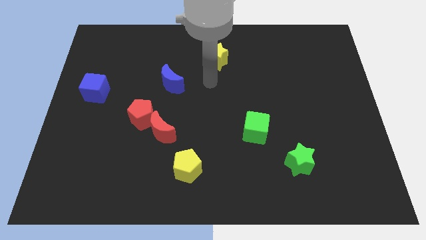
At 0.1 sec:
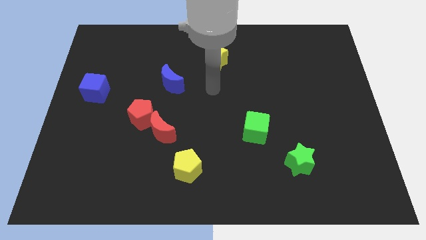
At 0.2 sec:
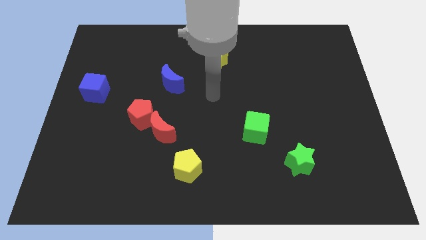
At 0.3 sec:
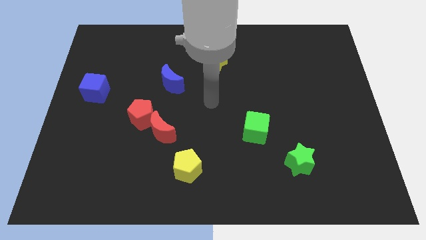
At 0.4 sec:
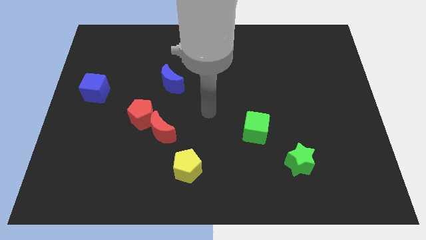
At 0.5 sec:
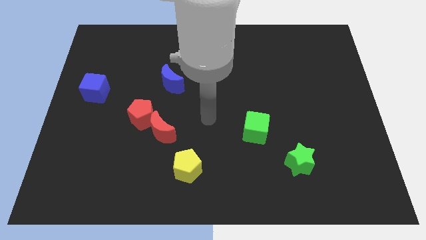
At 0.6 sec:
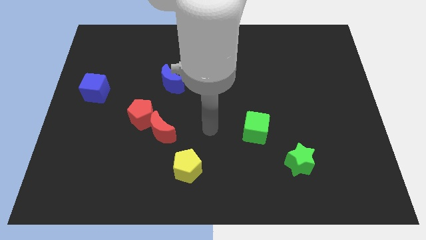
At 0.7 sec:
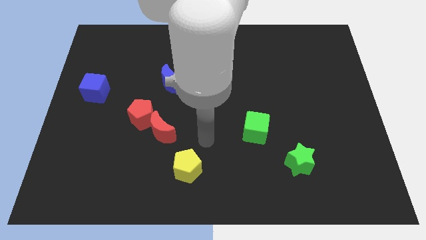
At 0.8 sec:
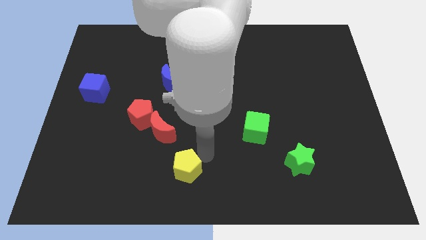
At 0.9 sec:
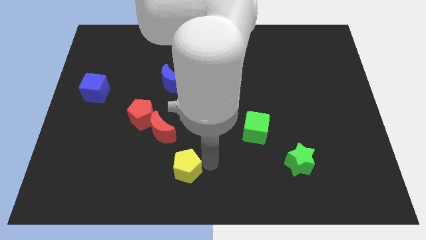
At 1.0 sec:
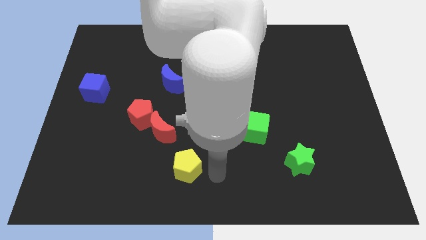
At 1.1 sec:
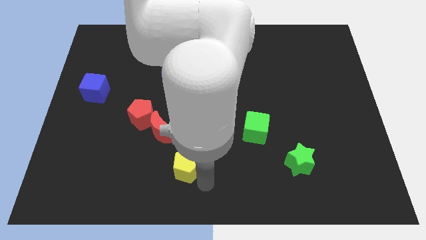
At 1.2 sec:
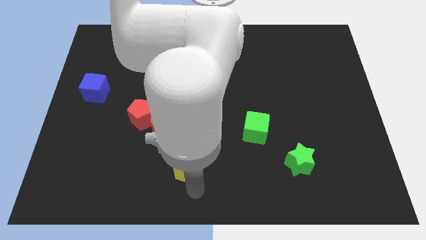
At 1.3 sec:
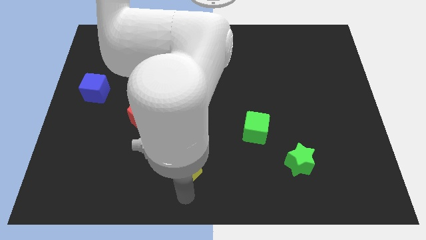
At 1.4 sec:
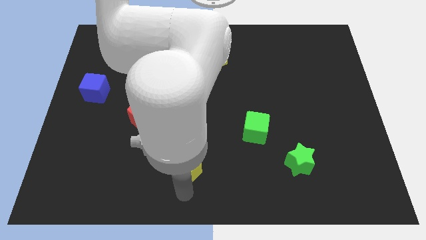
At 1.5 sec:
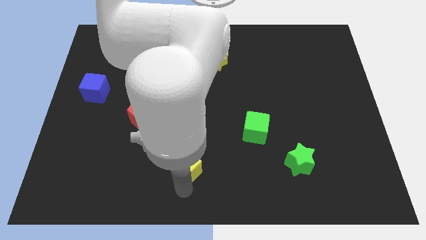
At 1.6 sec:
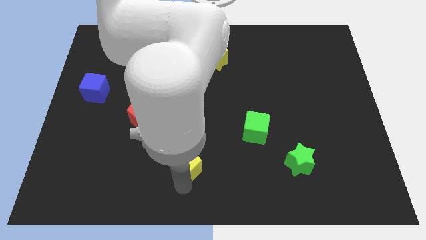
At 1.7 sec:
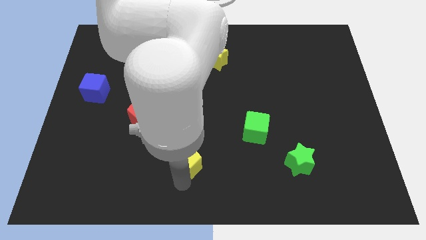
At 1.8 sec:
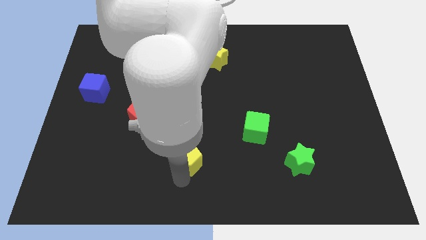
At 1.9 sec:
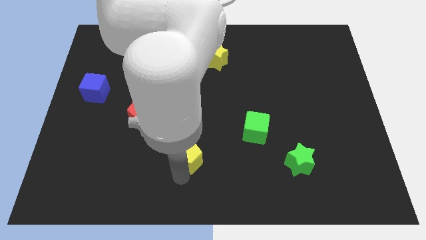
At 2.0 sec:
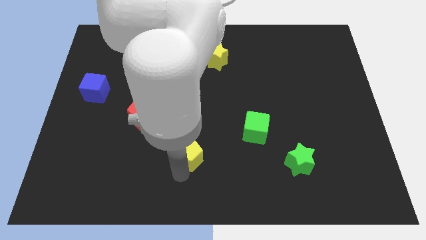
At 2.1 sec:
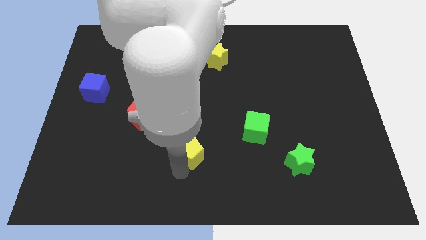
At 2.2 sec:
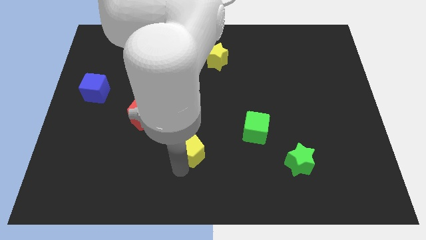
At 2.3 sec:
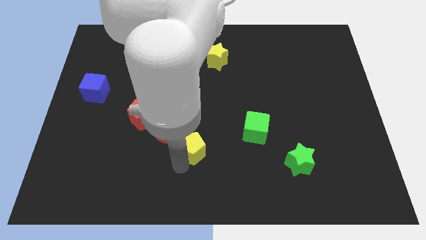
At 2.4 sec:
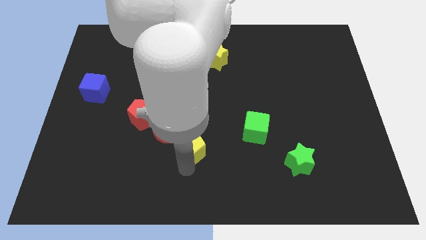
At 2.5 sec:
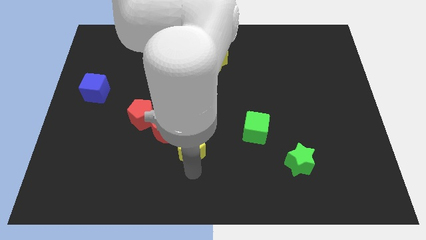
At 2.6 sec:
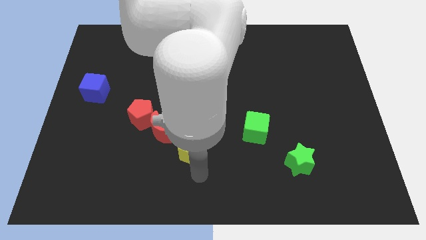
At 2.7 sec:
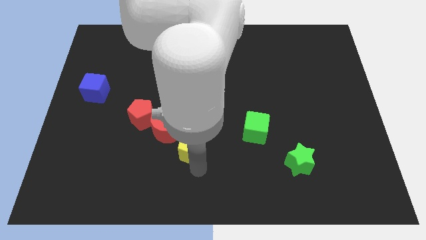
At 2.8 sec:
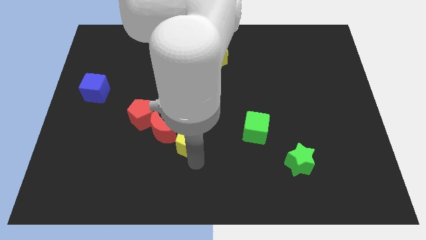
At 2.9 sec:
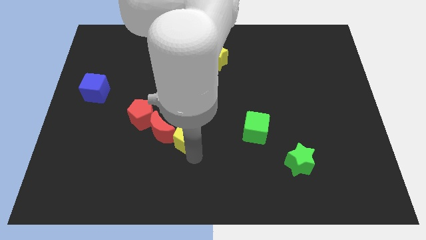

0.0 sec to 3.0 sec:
slide the yellow pentagon a little up

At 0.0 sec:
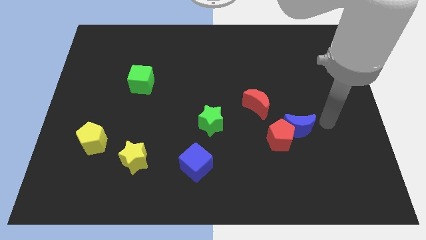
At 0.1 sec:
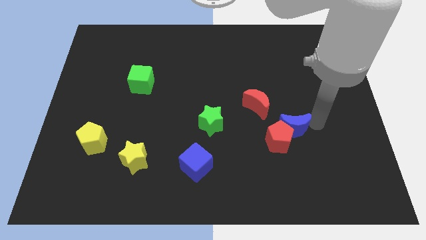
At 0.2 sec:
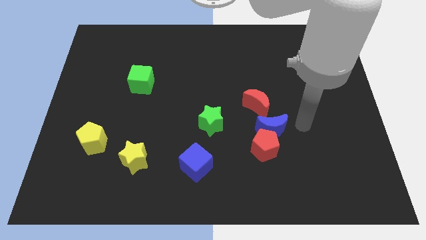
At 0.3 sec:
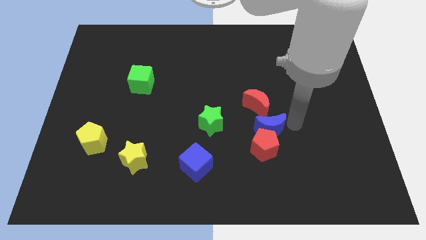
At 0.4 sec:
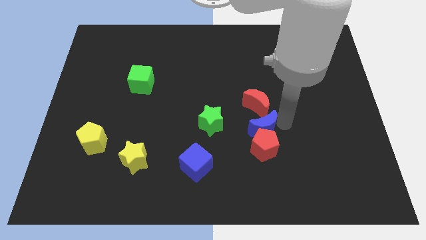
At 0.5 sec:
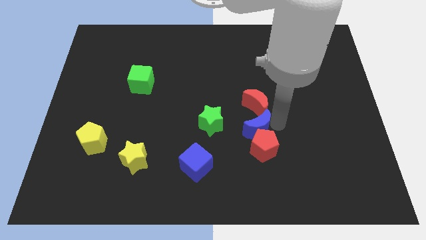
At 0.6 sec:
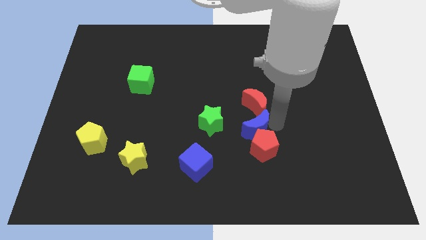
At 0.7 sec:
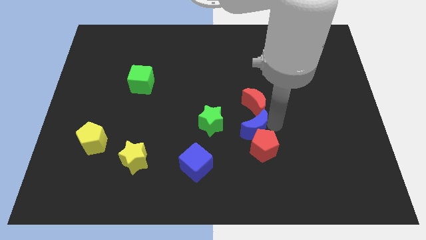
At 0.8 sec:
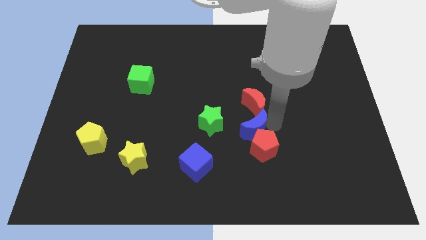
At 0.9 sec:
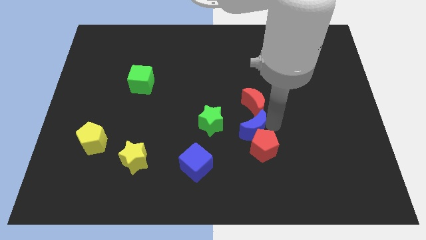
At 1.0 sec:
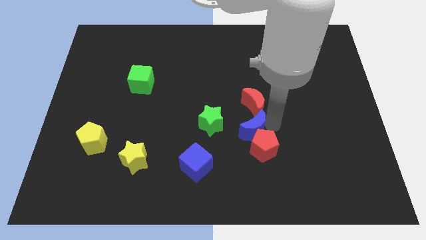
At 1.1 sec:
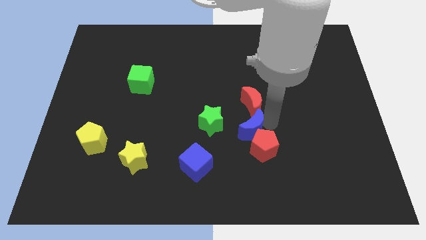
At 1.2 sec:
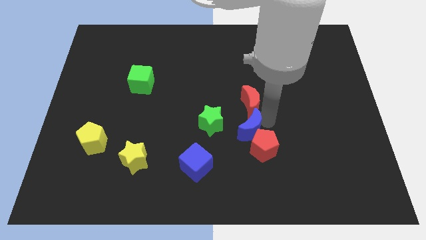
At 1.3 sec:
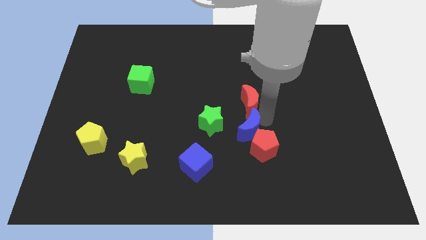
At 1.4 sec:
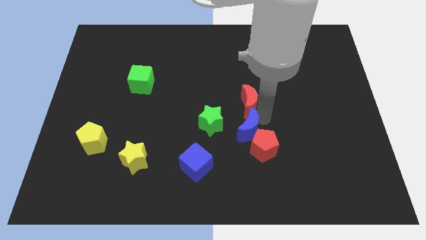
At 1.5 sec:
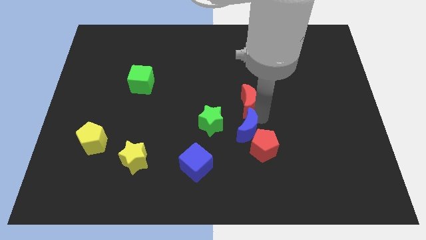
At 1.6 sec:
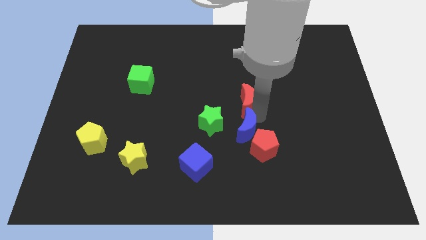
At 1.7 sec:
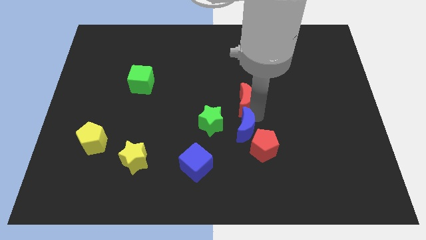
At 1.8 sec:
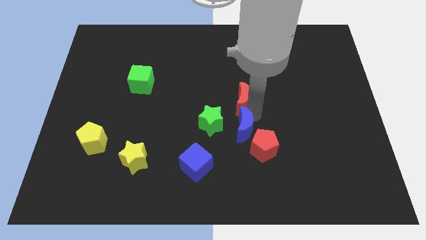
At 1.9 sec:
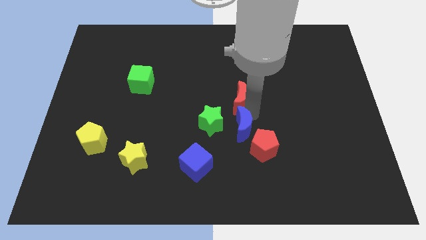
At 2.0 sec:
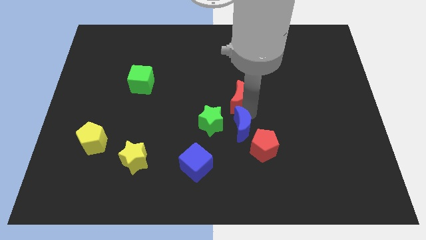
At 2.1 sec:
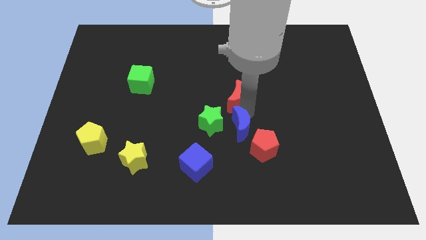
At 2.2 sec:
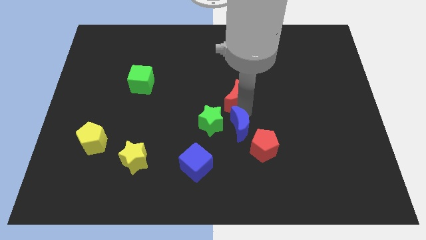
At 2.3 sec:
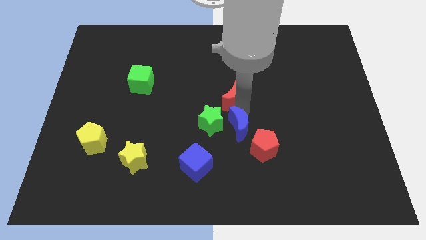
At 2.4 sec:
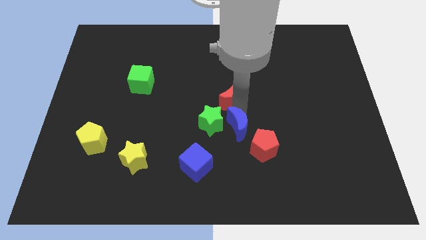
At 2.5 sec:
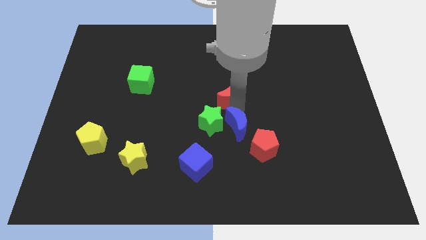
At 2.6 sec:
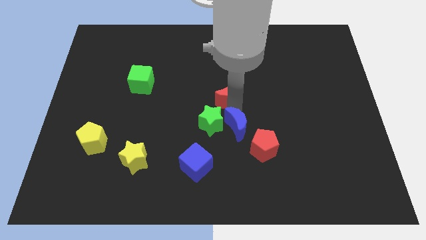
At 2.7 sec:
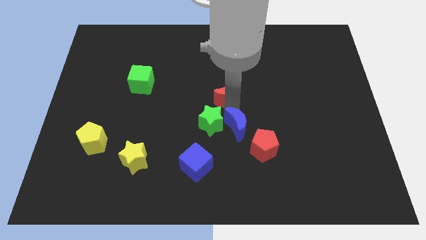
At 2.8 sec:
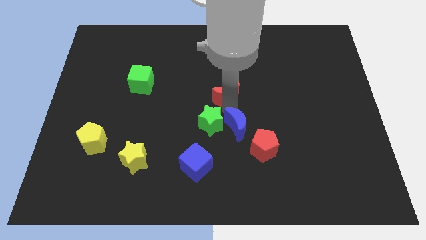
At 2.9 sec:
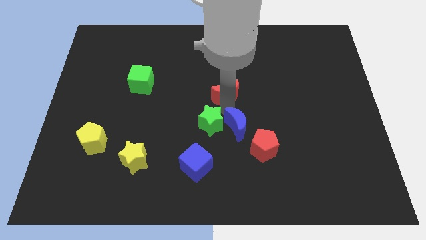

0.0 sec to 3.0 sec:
move the red moon a little up and left diagonally

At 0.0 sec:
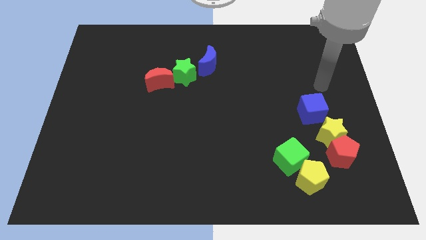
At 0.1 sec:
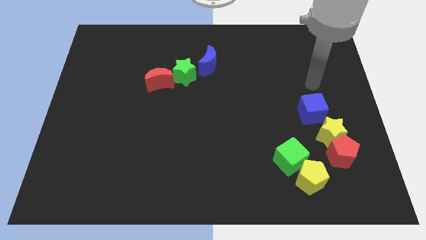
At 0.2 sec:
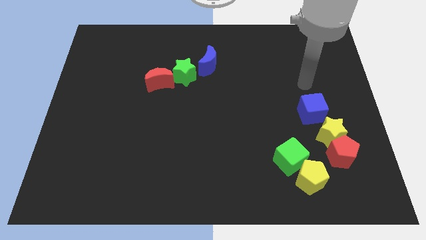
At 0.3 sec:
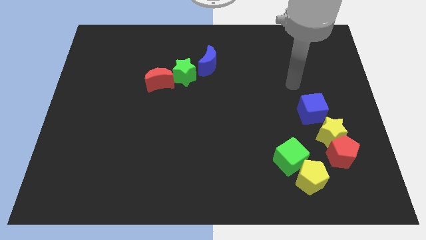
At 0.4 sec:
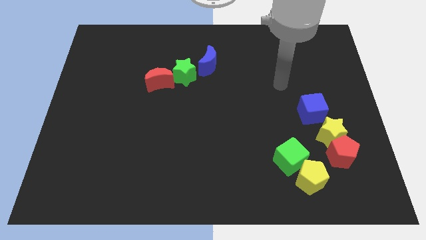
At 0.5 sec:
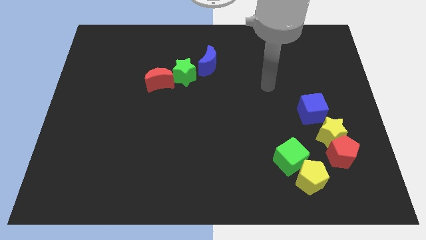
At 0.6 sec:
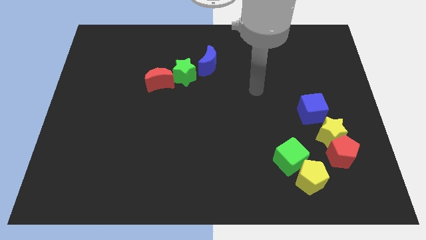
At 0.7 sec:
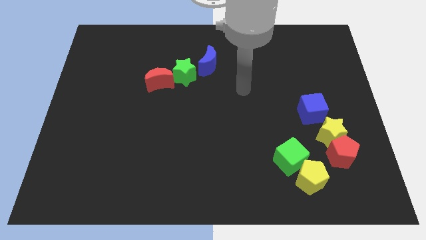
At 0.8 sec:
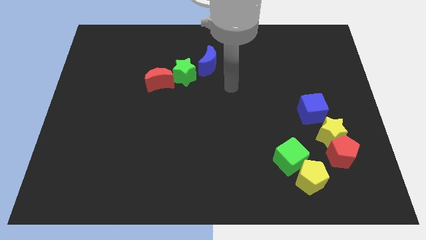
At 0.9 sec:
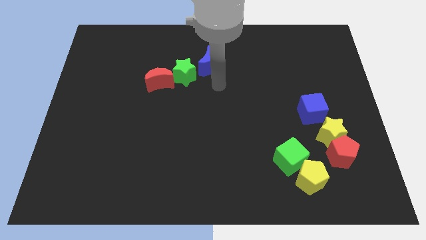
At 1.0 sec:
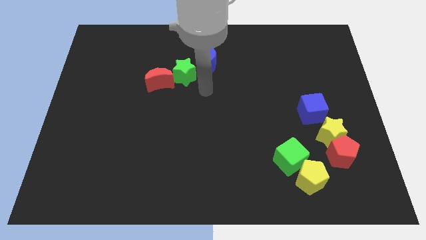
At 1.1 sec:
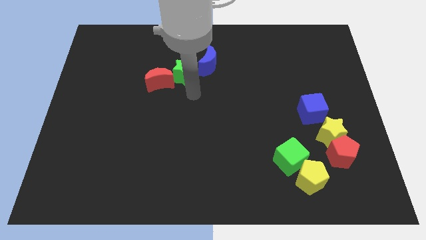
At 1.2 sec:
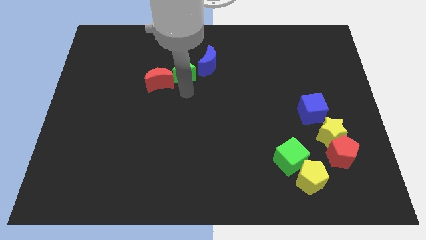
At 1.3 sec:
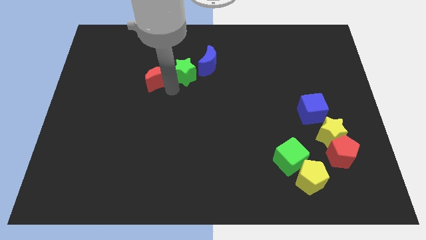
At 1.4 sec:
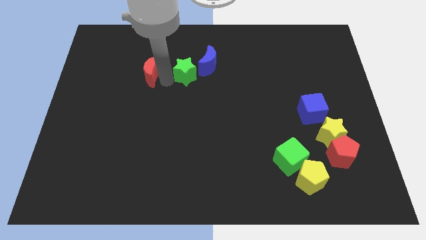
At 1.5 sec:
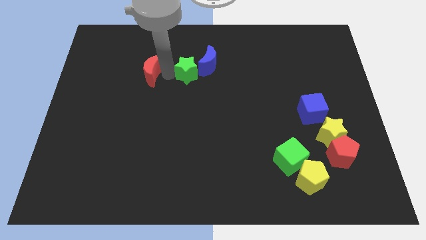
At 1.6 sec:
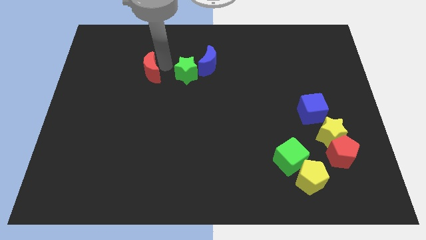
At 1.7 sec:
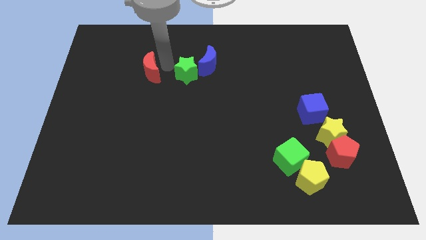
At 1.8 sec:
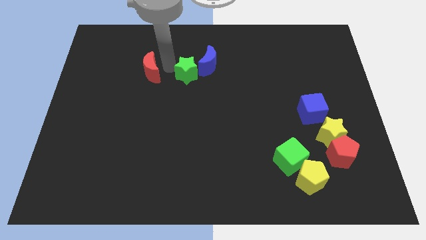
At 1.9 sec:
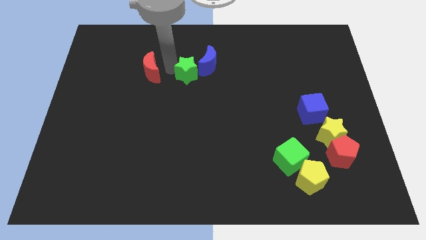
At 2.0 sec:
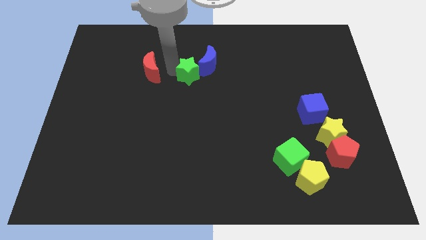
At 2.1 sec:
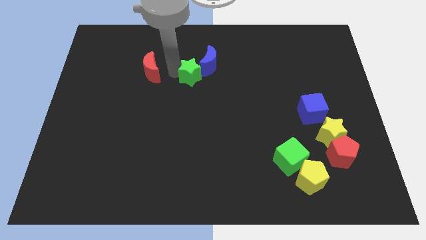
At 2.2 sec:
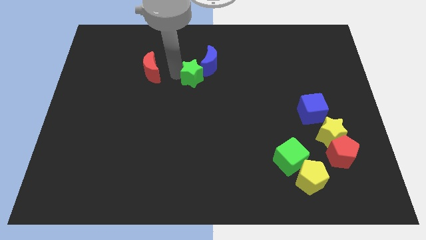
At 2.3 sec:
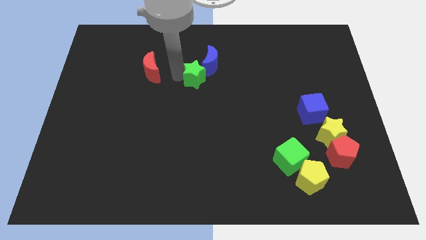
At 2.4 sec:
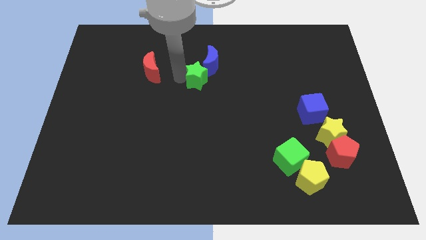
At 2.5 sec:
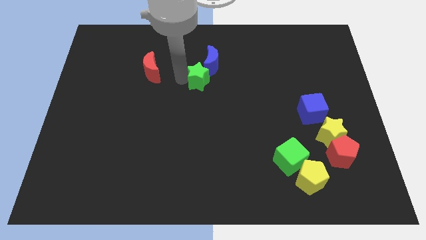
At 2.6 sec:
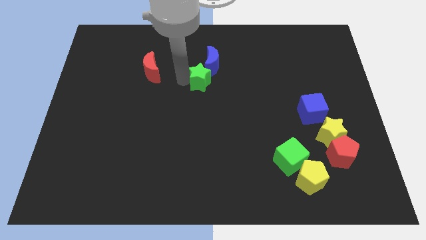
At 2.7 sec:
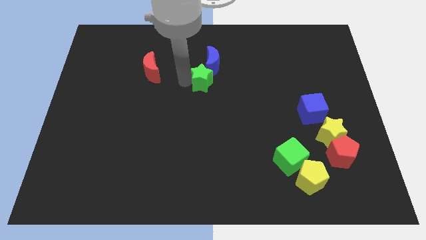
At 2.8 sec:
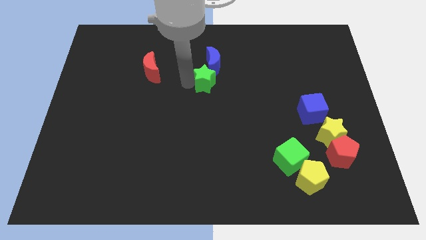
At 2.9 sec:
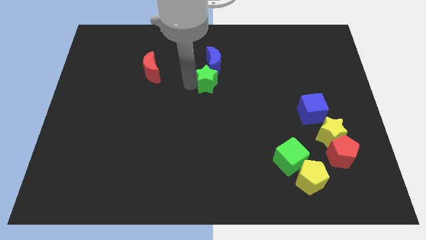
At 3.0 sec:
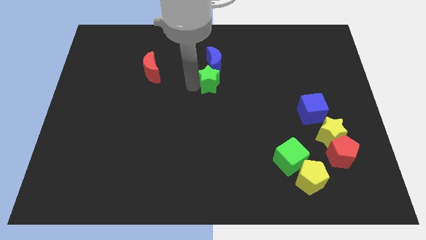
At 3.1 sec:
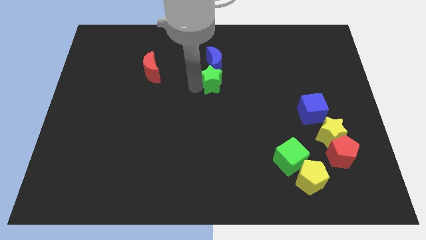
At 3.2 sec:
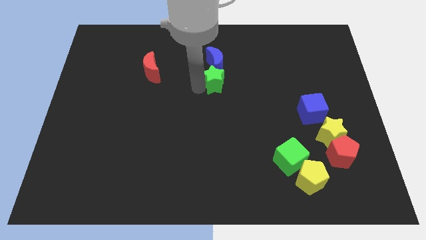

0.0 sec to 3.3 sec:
slightly push the green star right
